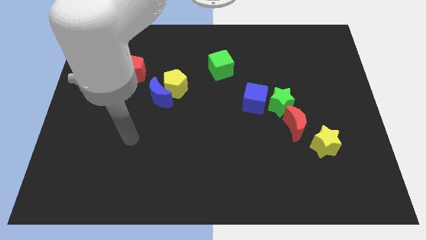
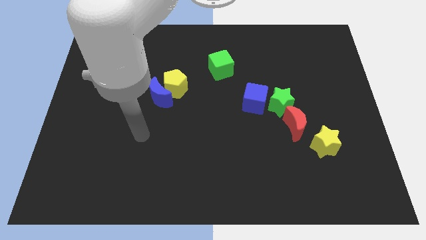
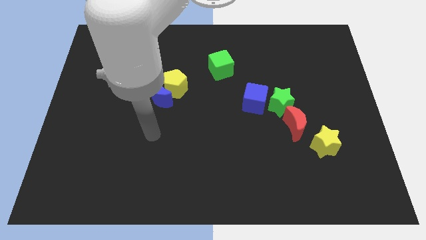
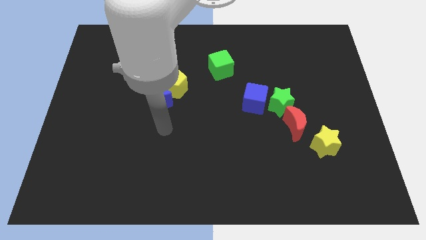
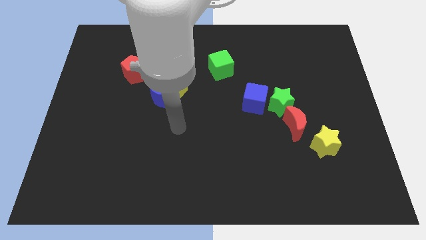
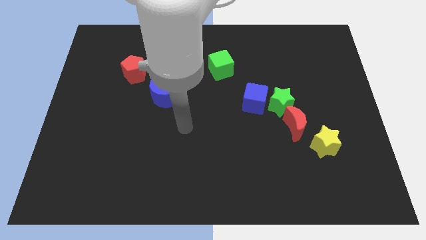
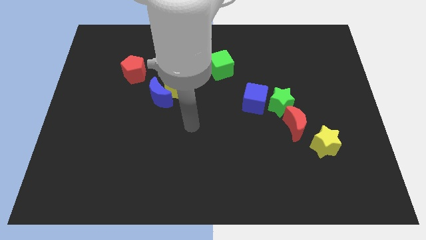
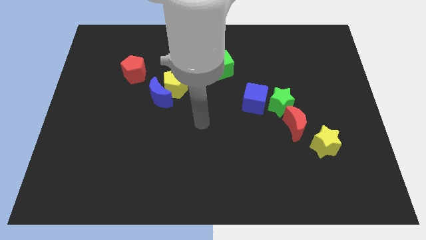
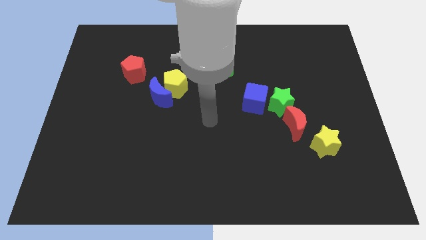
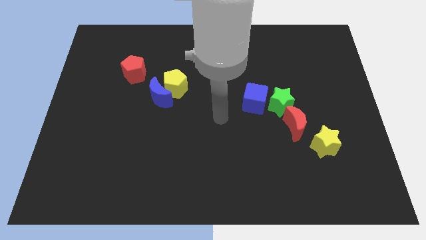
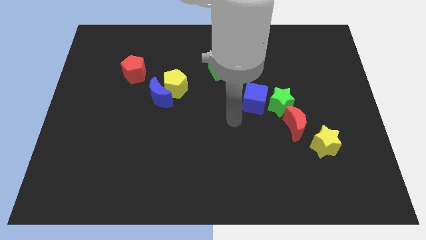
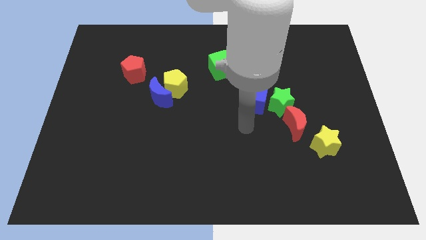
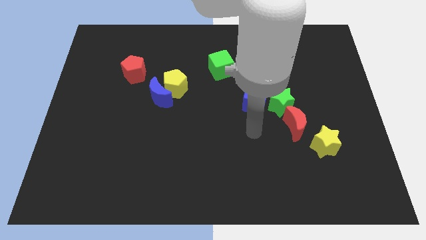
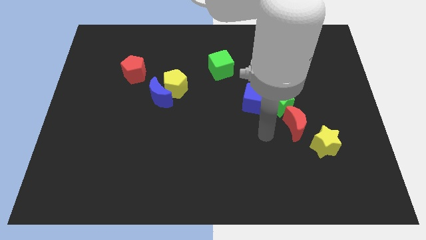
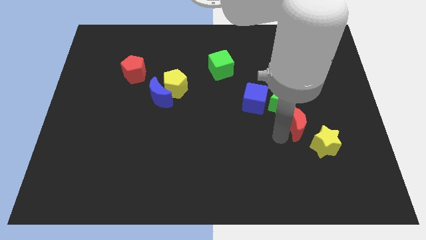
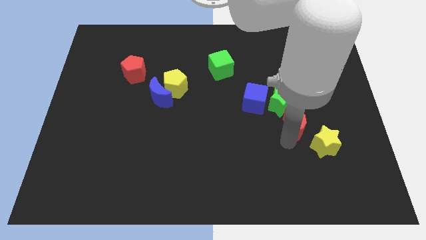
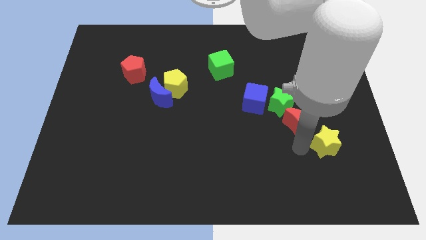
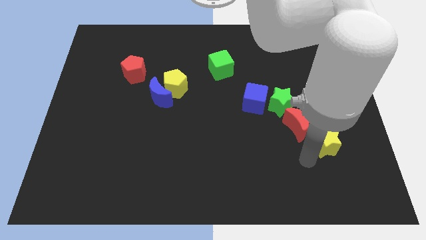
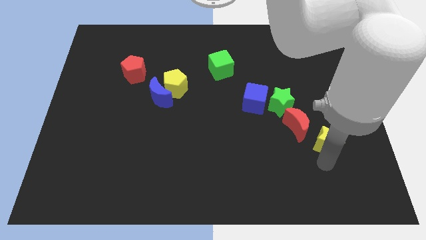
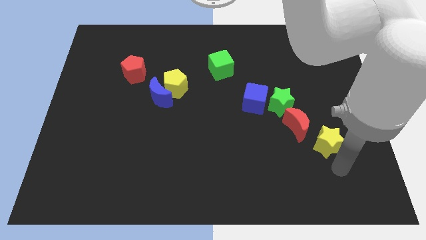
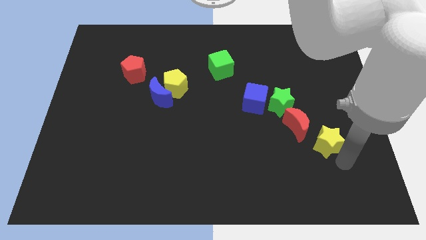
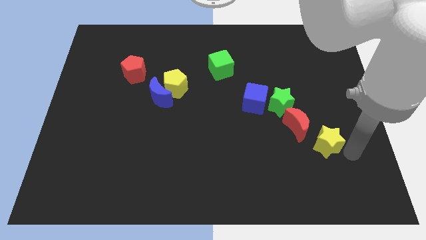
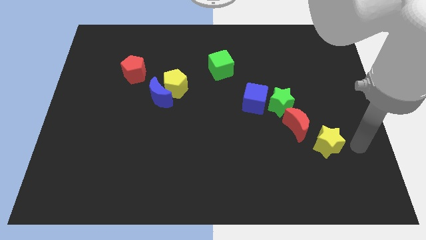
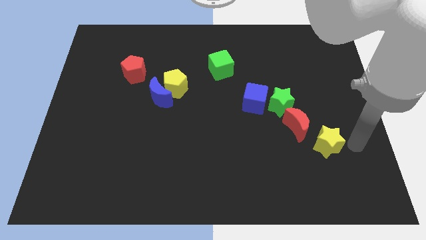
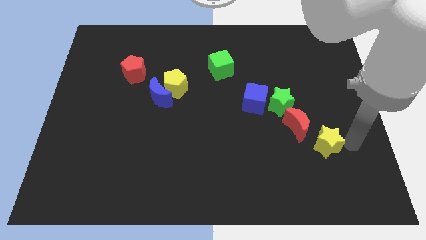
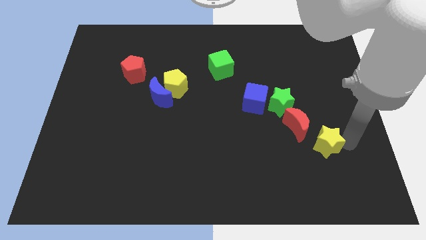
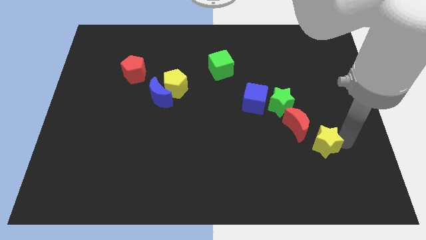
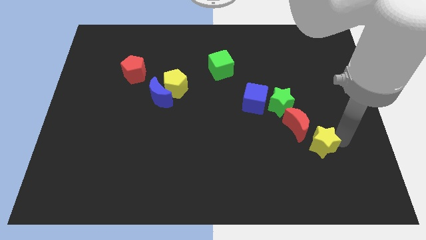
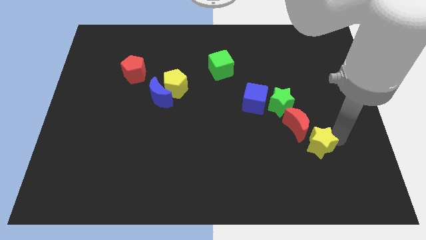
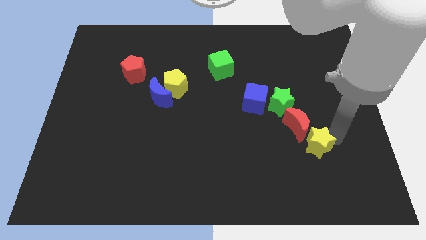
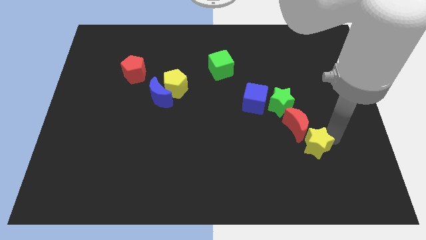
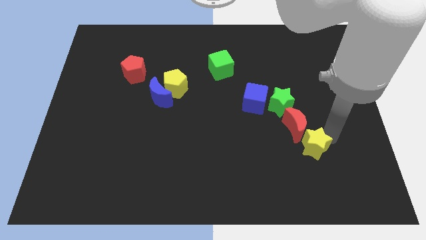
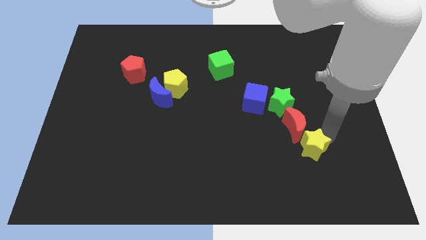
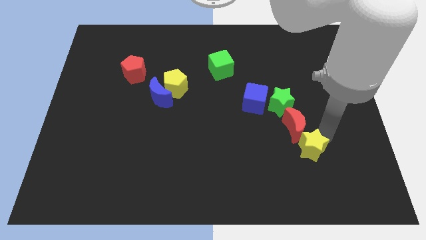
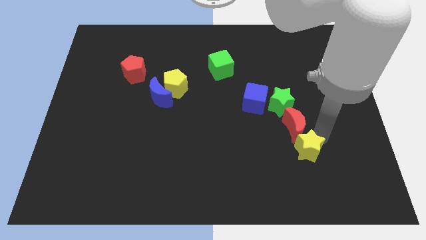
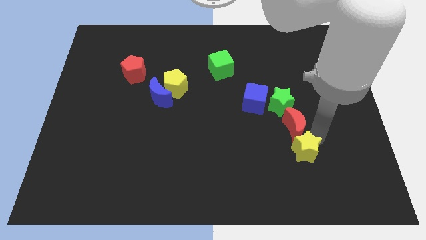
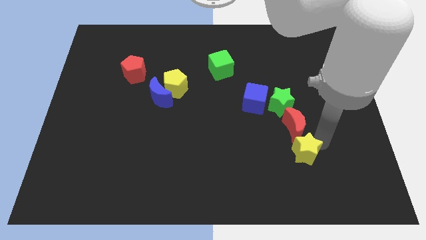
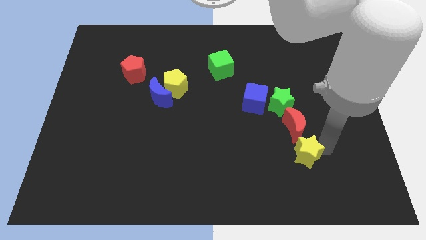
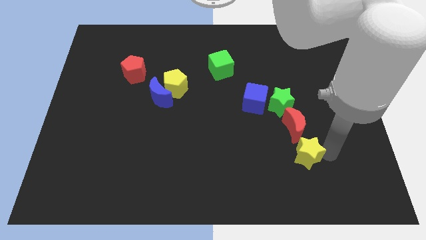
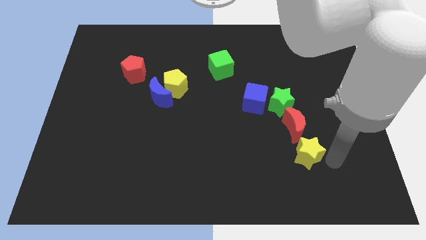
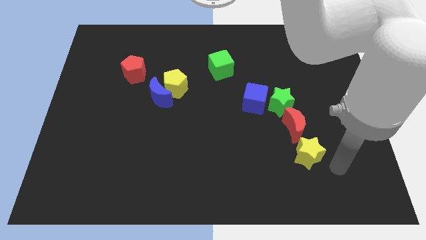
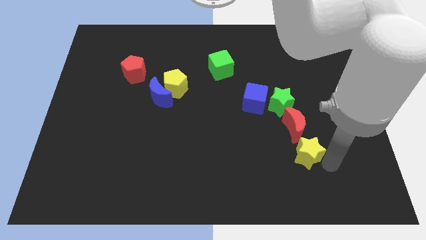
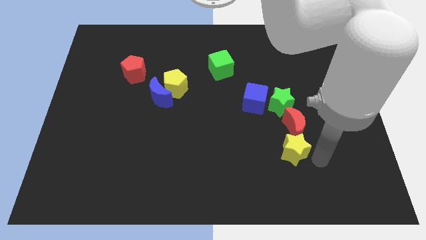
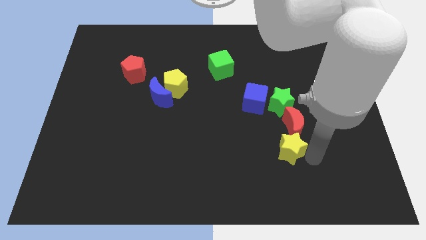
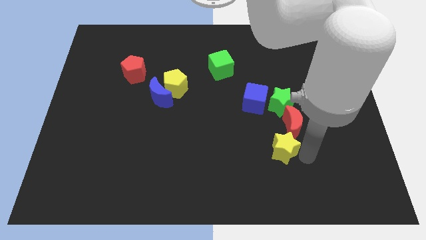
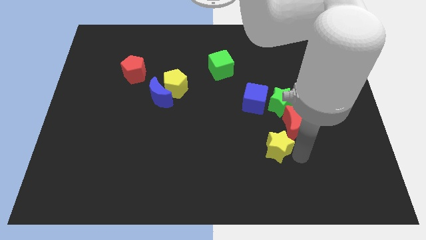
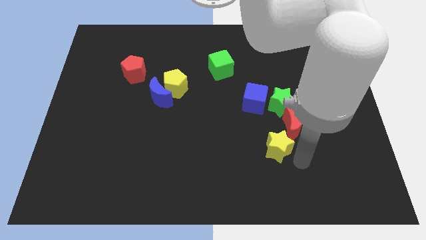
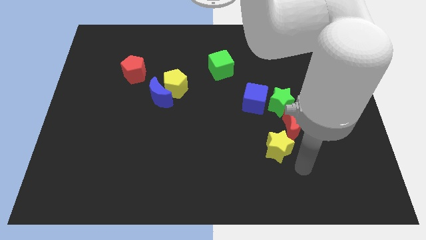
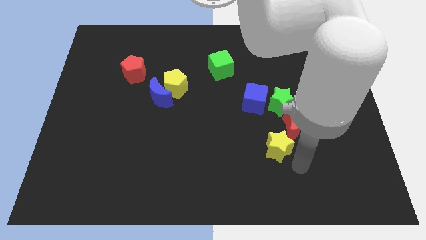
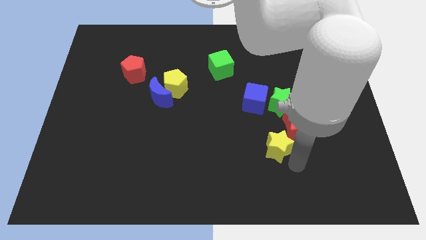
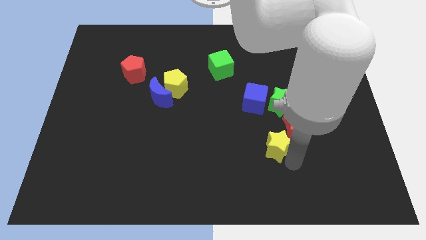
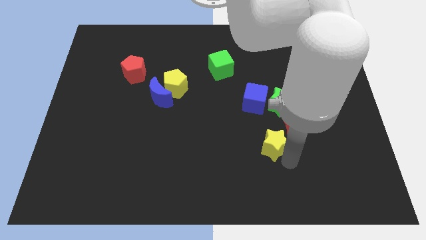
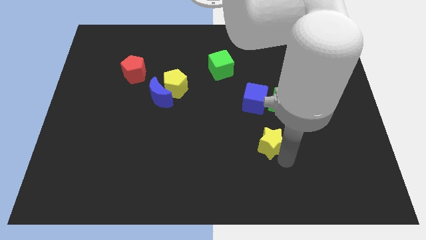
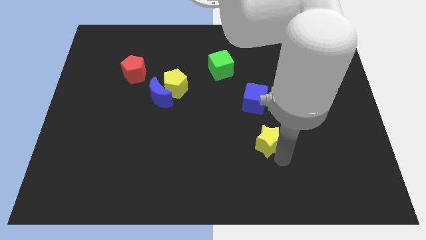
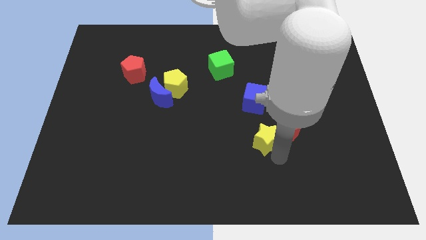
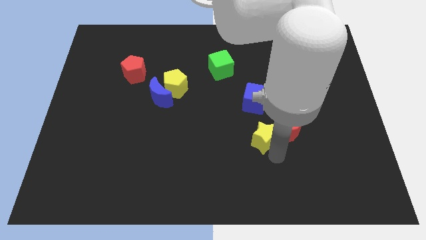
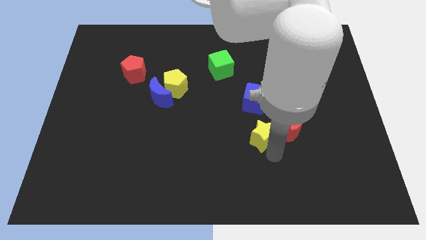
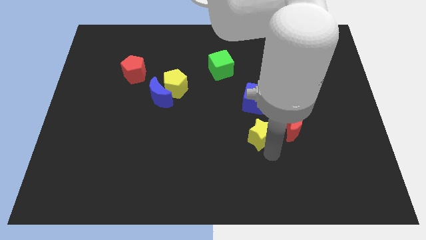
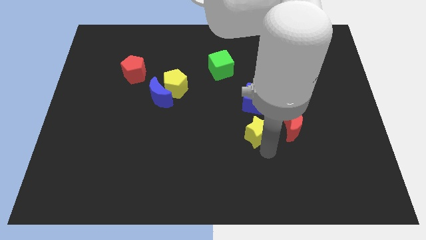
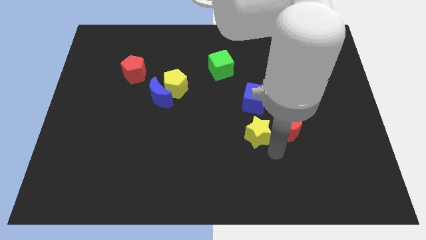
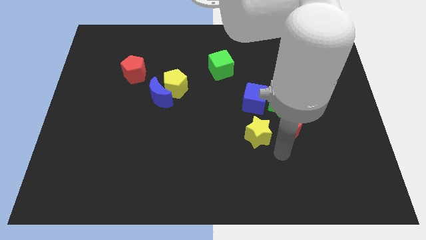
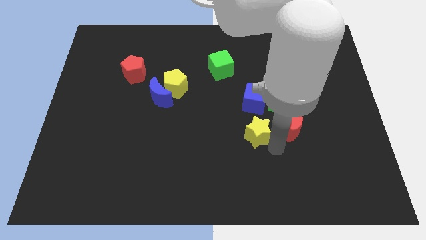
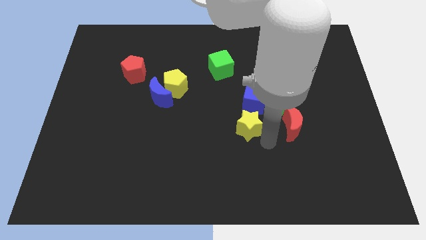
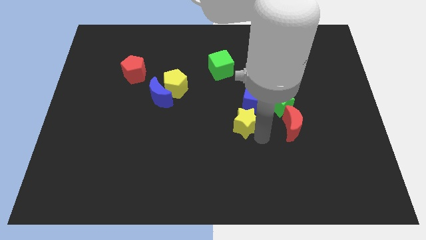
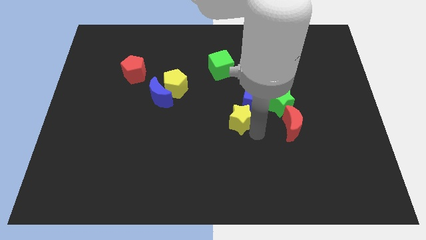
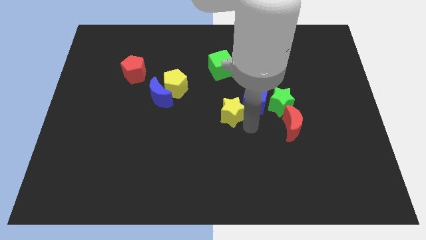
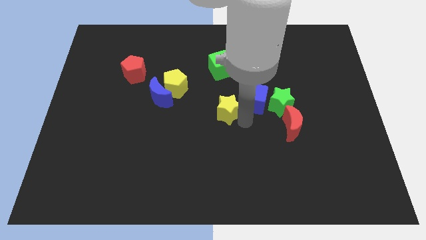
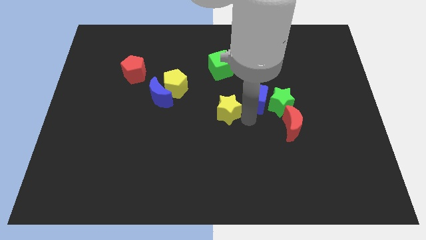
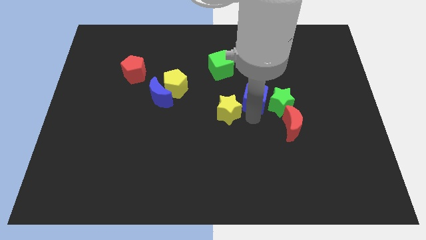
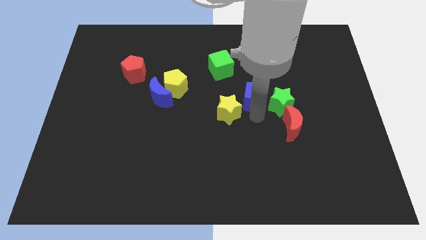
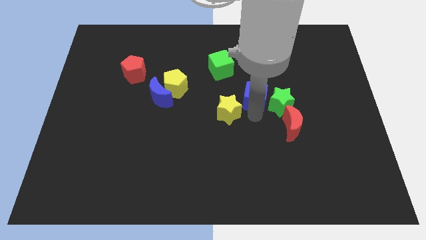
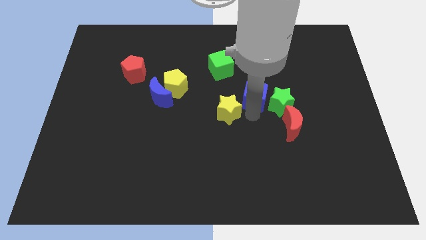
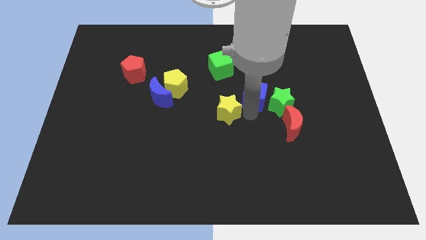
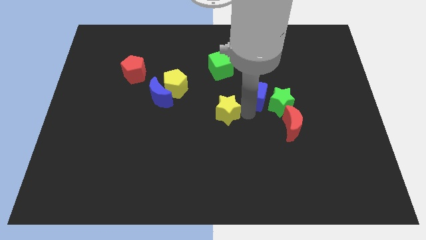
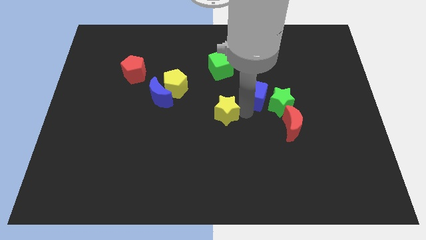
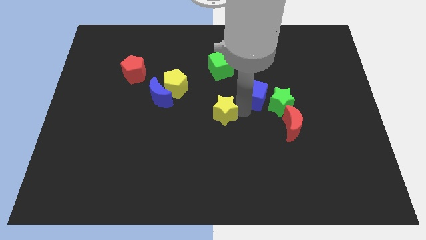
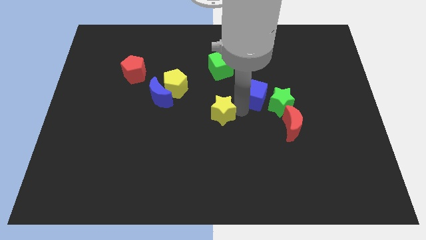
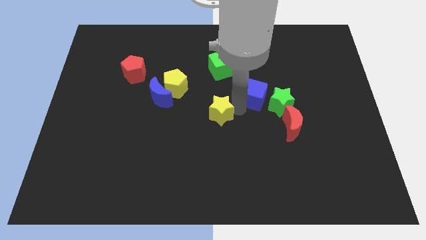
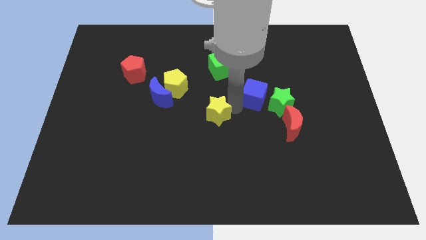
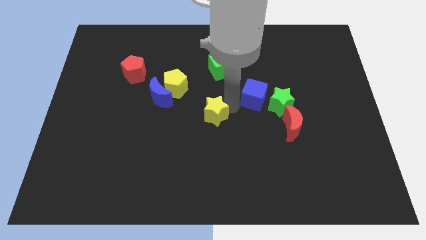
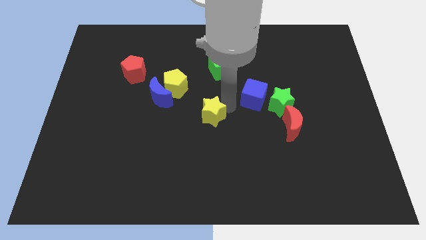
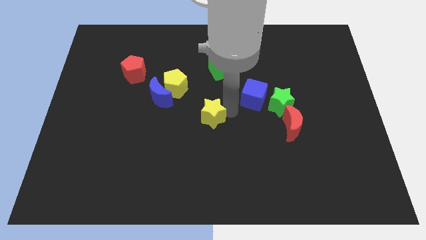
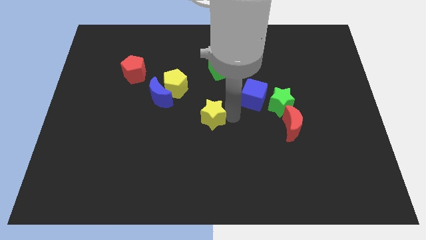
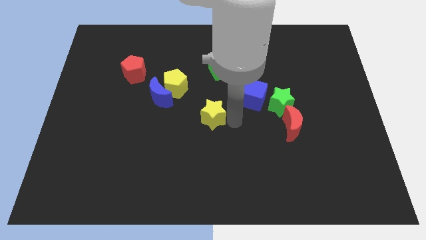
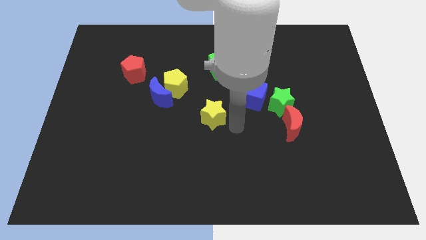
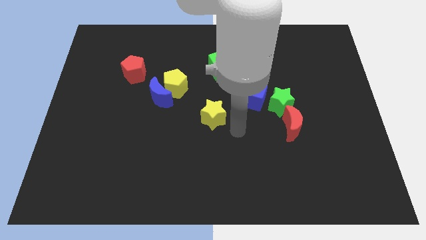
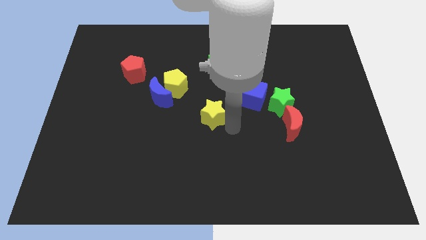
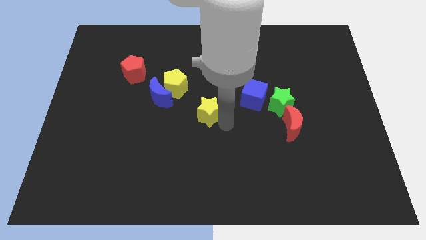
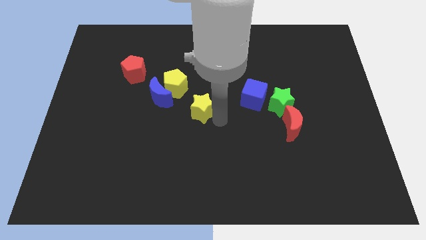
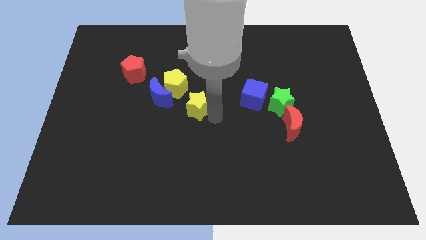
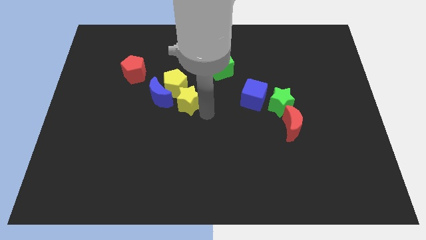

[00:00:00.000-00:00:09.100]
put the yellow star to the yellow pentagon
